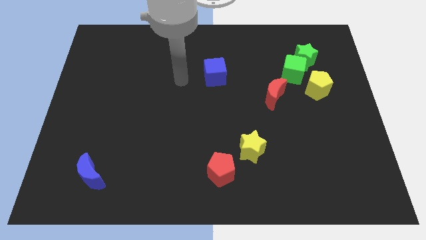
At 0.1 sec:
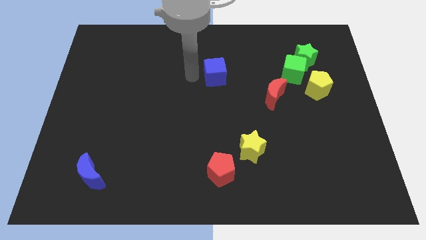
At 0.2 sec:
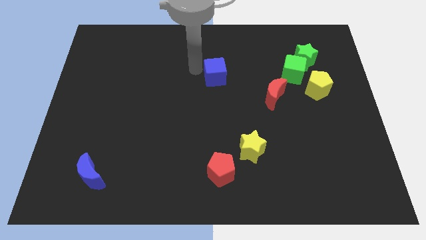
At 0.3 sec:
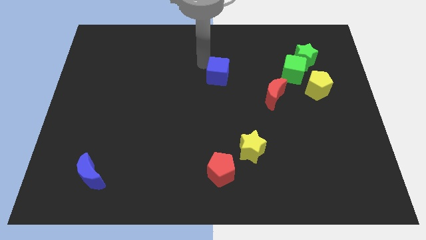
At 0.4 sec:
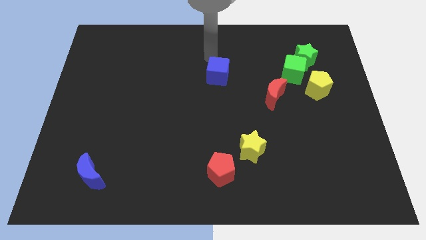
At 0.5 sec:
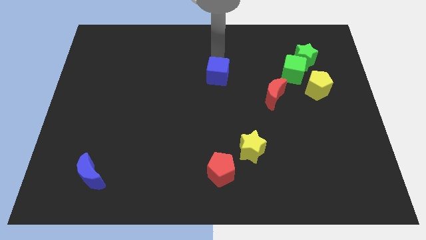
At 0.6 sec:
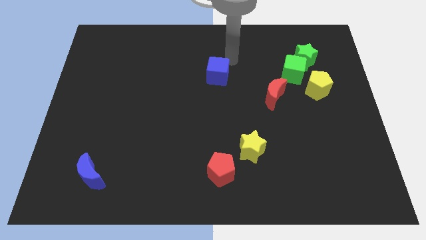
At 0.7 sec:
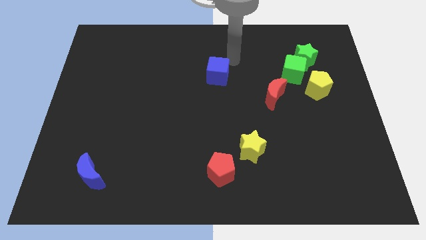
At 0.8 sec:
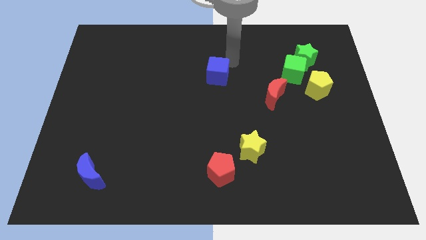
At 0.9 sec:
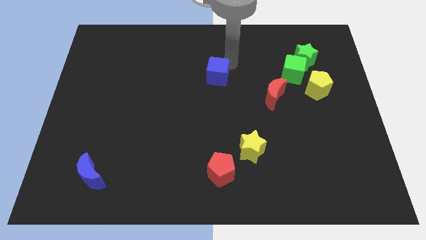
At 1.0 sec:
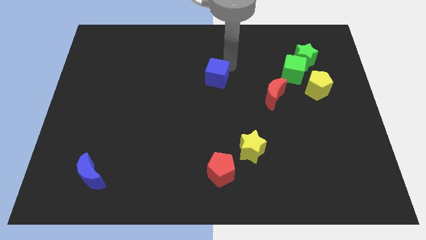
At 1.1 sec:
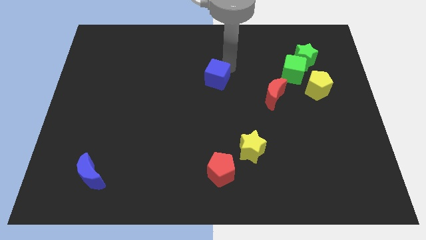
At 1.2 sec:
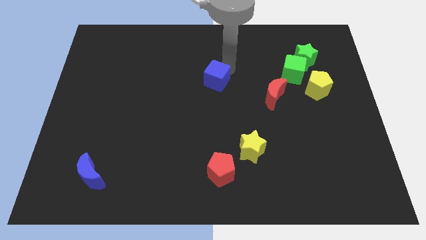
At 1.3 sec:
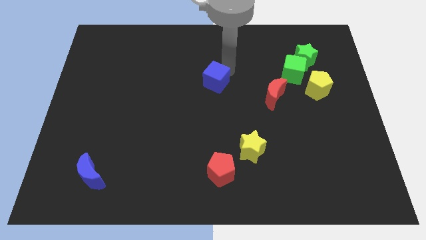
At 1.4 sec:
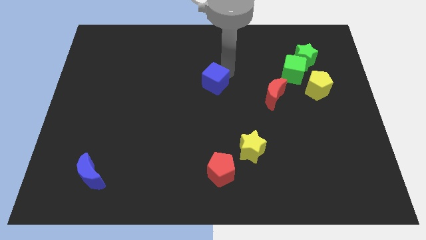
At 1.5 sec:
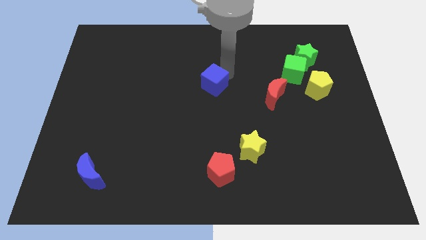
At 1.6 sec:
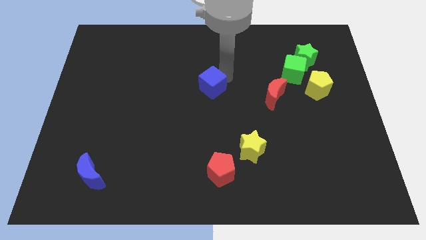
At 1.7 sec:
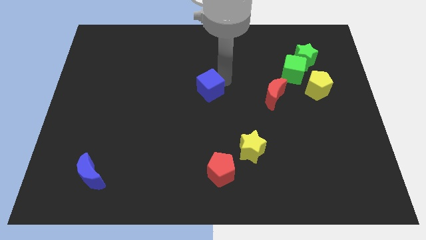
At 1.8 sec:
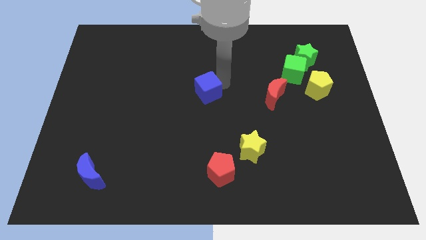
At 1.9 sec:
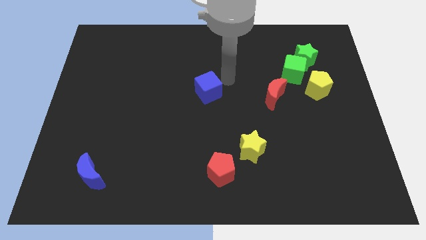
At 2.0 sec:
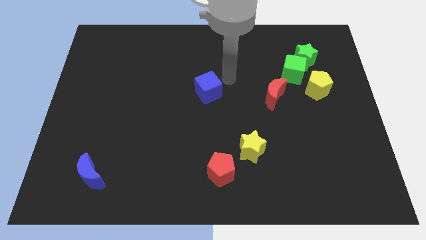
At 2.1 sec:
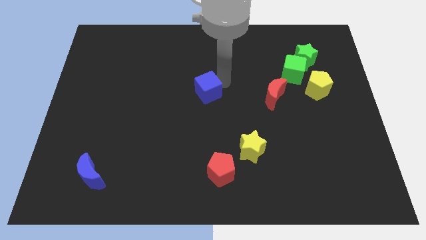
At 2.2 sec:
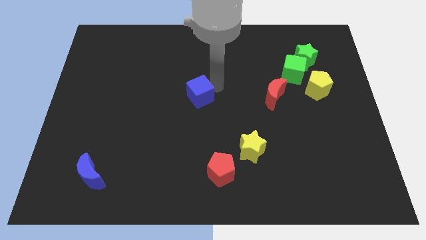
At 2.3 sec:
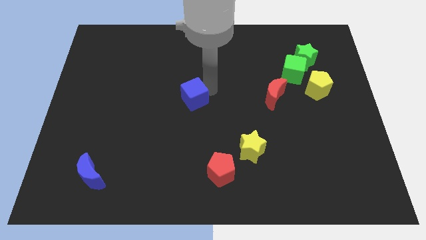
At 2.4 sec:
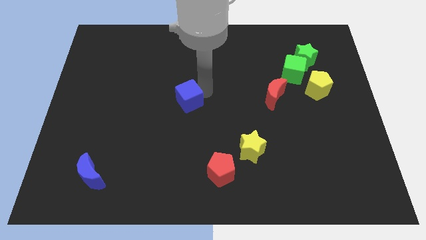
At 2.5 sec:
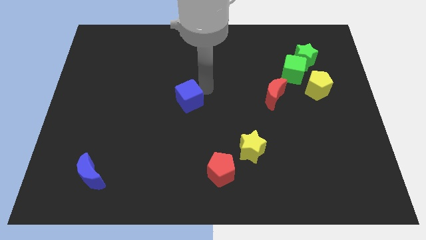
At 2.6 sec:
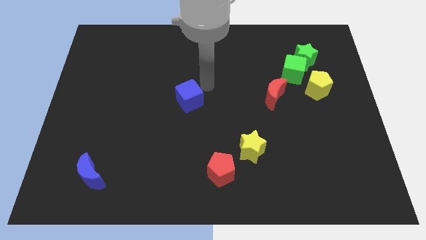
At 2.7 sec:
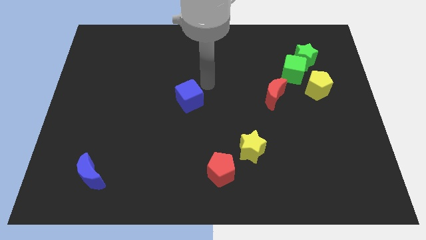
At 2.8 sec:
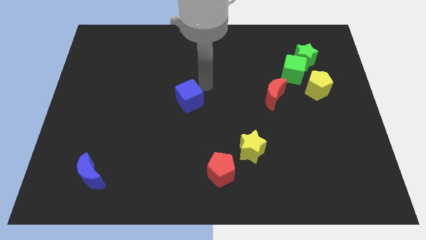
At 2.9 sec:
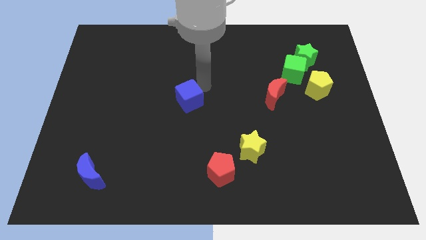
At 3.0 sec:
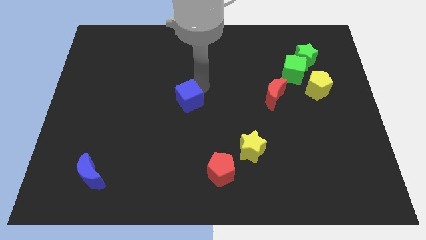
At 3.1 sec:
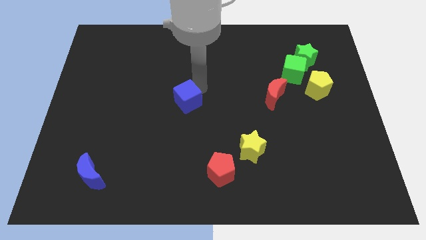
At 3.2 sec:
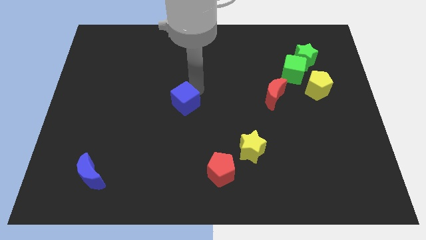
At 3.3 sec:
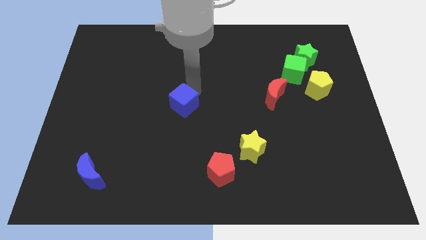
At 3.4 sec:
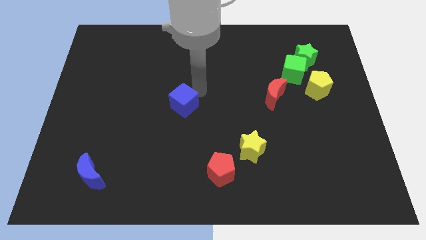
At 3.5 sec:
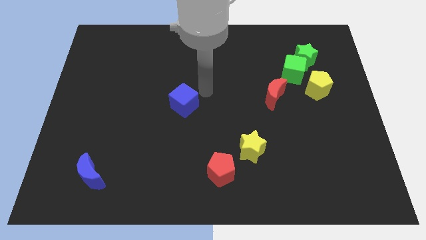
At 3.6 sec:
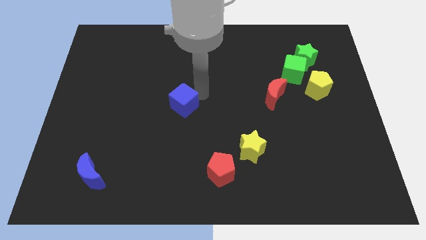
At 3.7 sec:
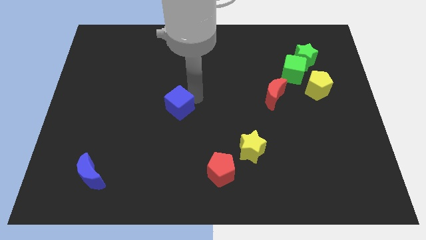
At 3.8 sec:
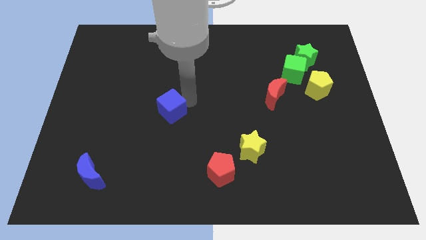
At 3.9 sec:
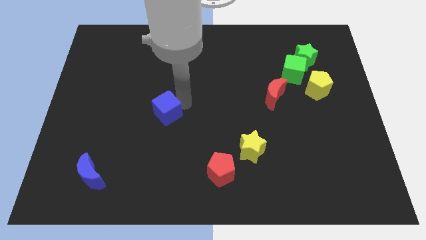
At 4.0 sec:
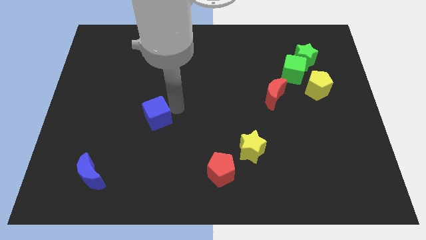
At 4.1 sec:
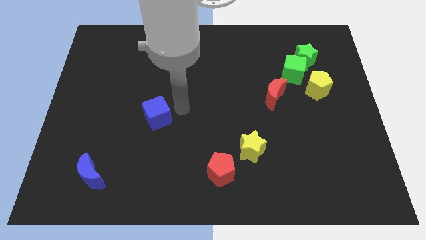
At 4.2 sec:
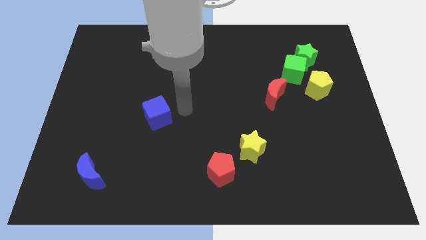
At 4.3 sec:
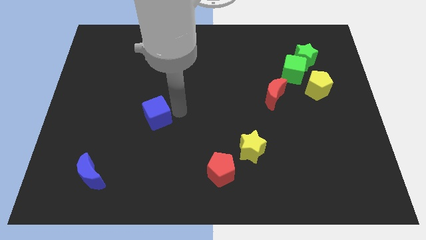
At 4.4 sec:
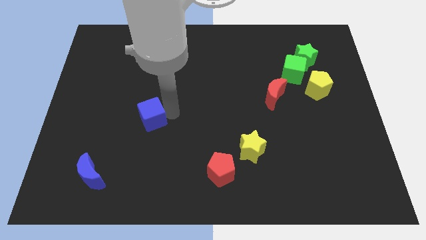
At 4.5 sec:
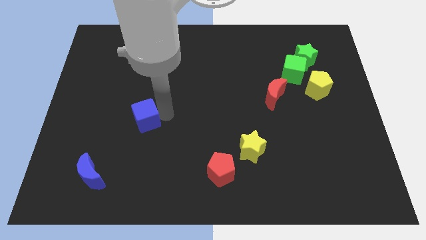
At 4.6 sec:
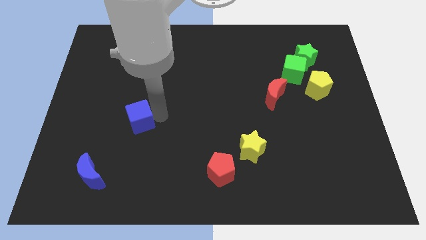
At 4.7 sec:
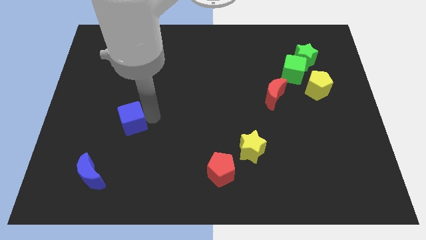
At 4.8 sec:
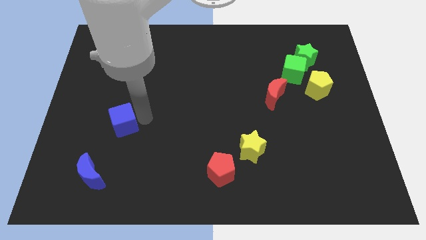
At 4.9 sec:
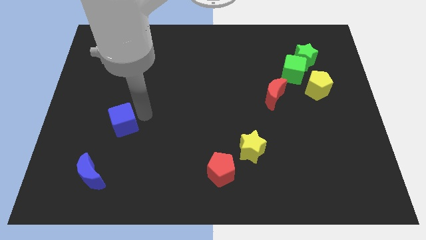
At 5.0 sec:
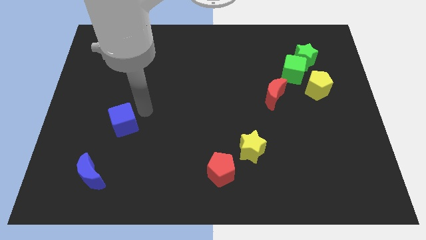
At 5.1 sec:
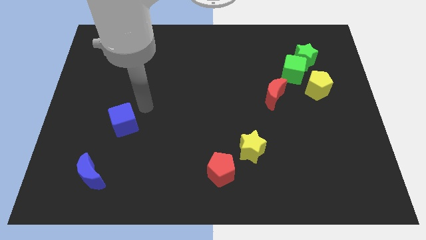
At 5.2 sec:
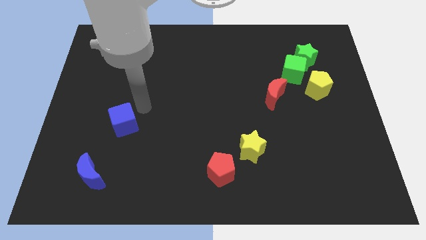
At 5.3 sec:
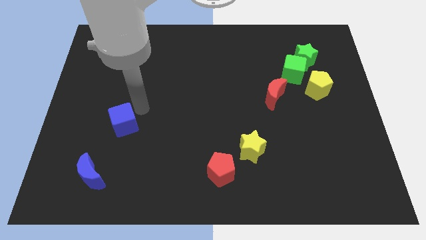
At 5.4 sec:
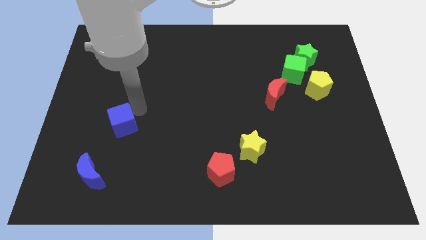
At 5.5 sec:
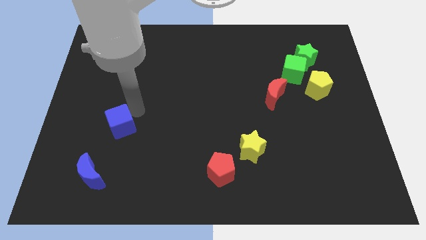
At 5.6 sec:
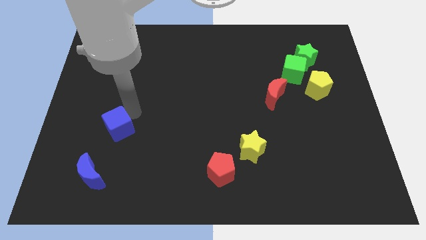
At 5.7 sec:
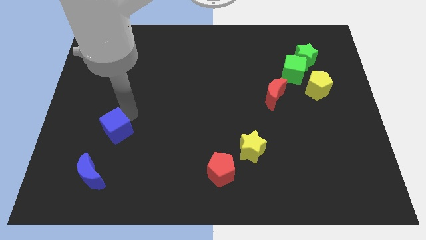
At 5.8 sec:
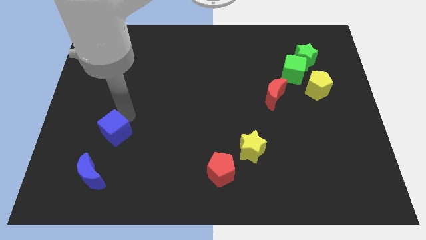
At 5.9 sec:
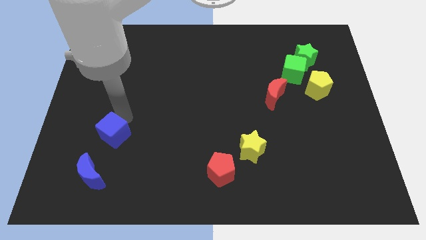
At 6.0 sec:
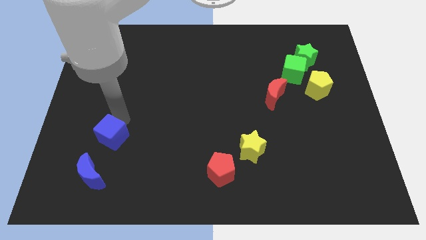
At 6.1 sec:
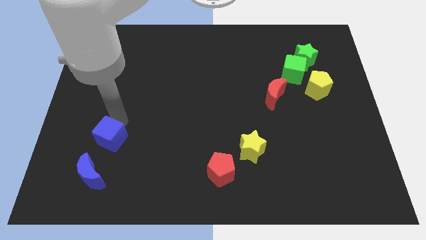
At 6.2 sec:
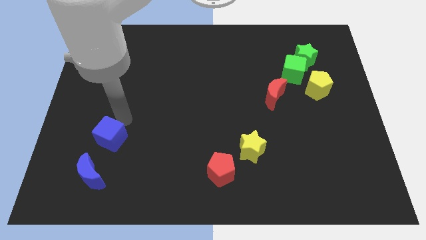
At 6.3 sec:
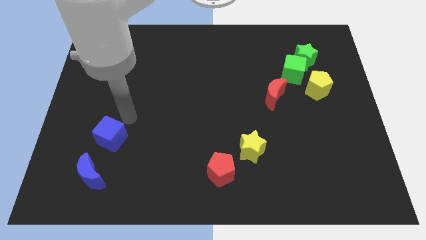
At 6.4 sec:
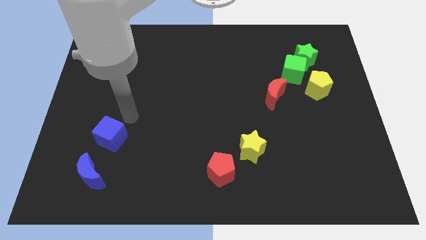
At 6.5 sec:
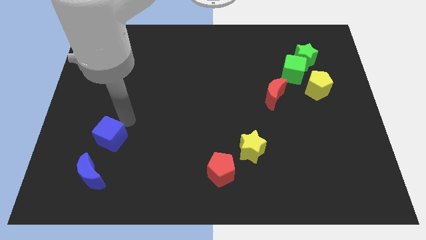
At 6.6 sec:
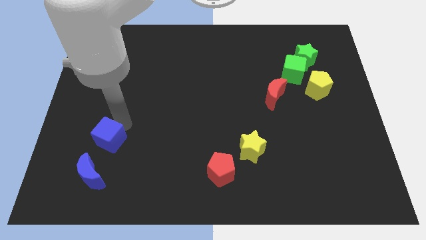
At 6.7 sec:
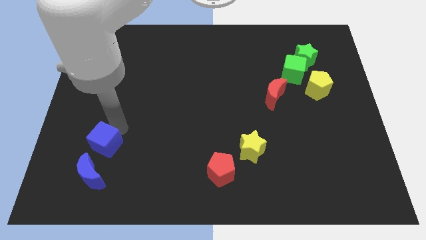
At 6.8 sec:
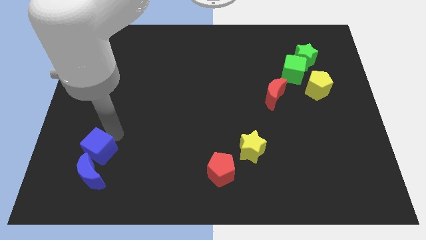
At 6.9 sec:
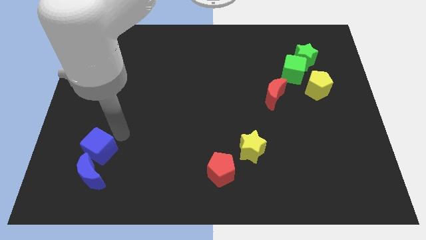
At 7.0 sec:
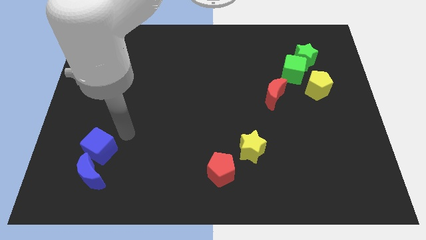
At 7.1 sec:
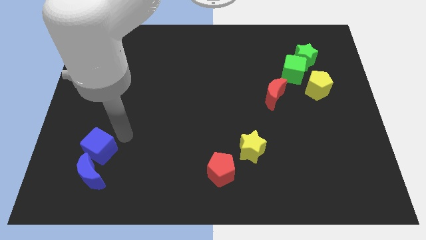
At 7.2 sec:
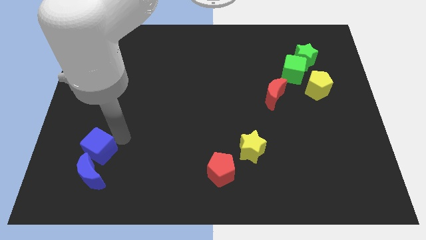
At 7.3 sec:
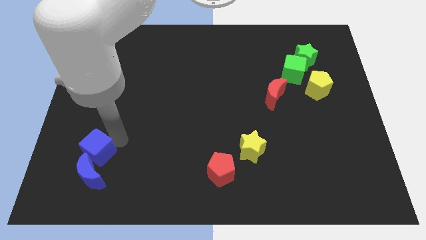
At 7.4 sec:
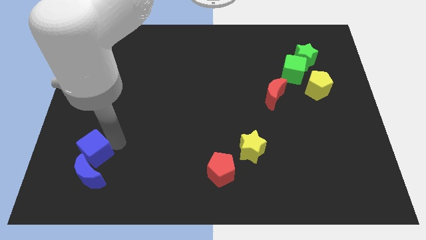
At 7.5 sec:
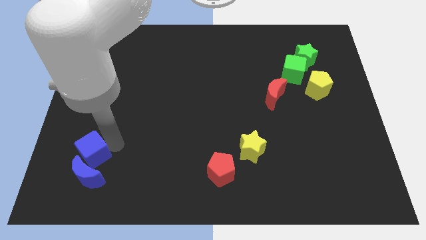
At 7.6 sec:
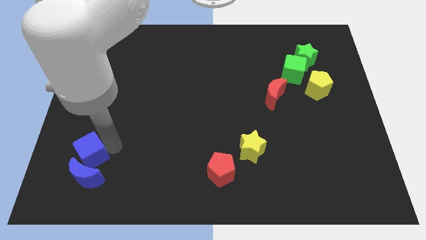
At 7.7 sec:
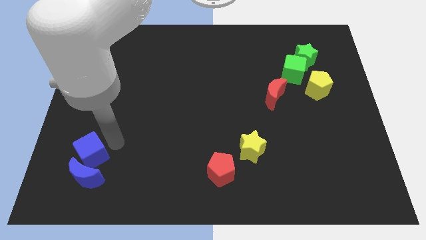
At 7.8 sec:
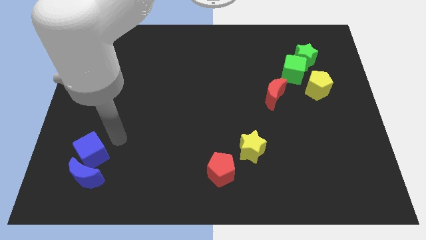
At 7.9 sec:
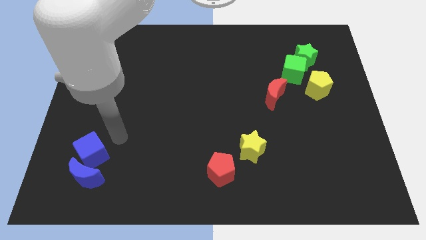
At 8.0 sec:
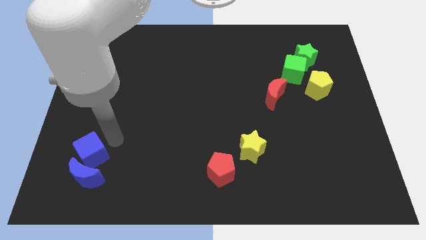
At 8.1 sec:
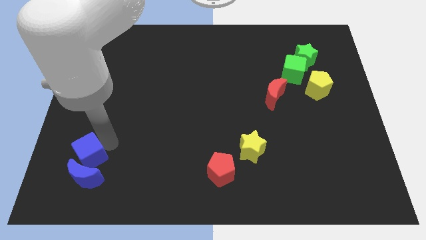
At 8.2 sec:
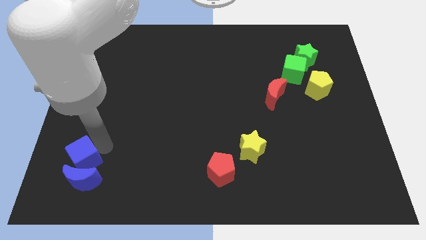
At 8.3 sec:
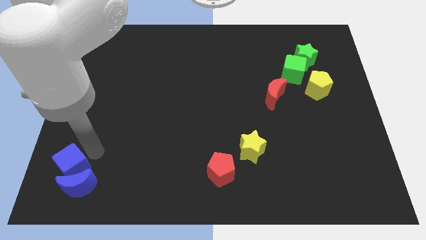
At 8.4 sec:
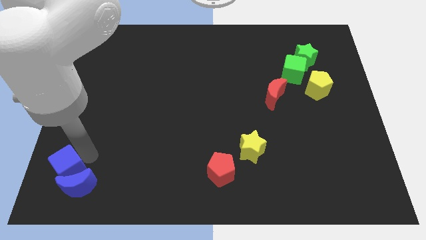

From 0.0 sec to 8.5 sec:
put the blue cube to the bottom left corner
